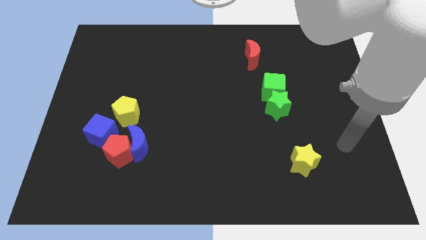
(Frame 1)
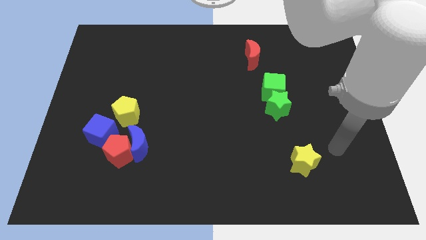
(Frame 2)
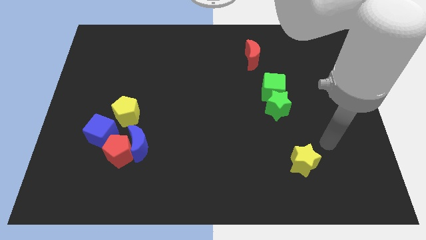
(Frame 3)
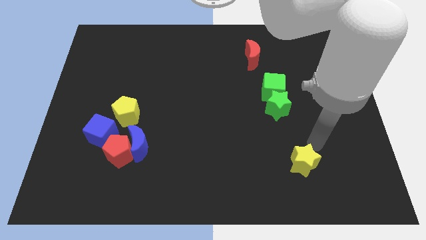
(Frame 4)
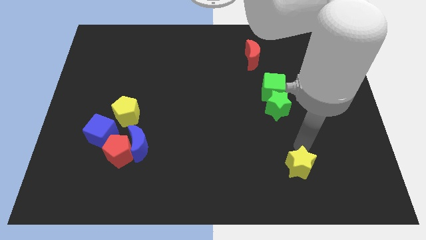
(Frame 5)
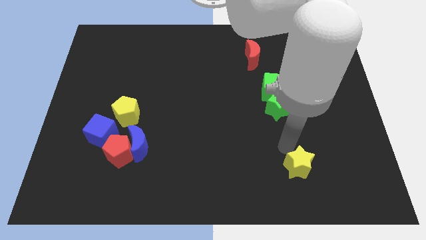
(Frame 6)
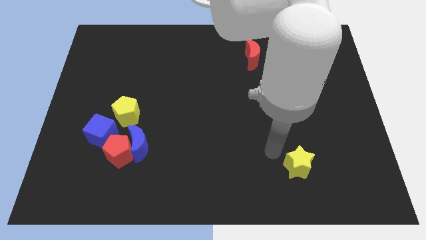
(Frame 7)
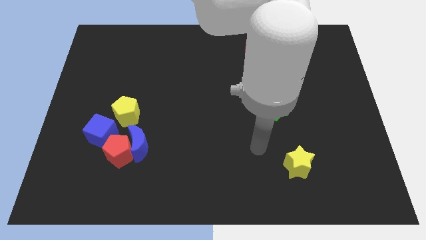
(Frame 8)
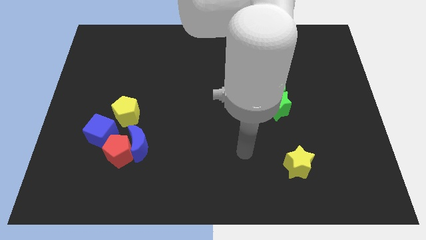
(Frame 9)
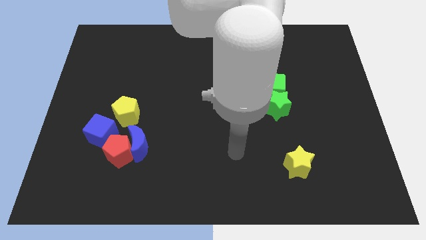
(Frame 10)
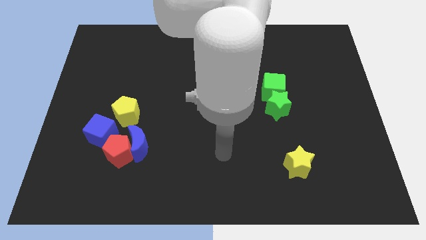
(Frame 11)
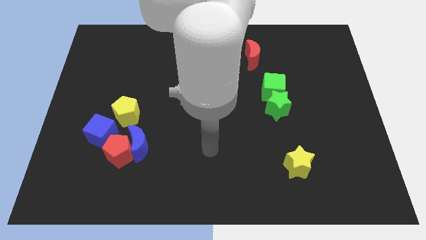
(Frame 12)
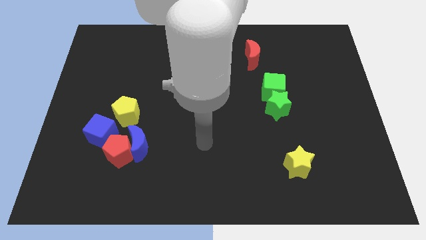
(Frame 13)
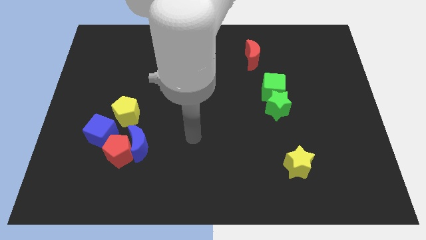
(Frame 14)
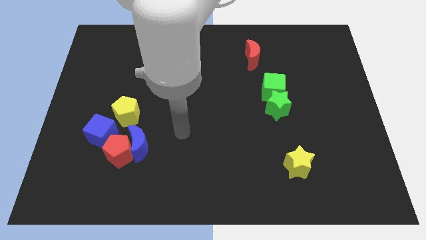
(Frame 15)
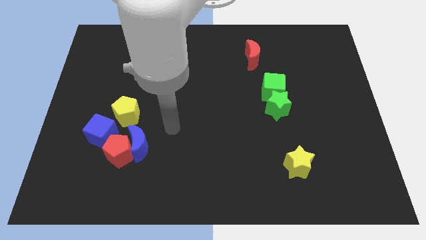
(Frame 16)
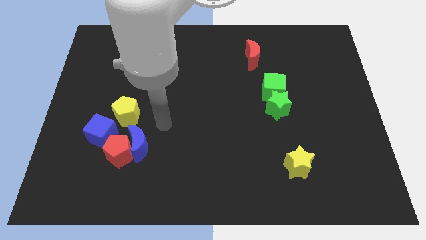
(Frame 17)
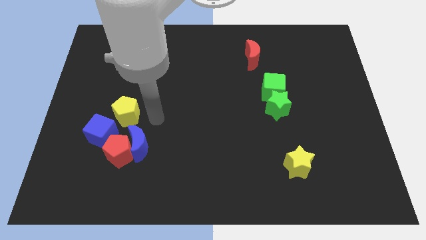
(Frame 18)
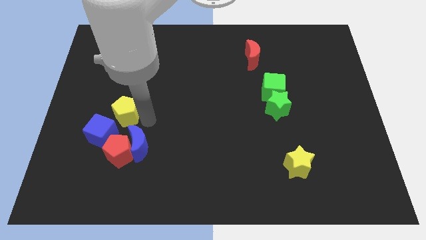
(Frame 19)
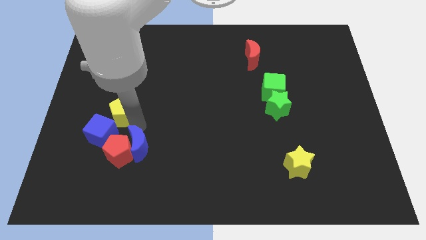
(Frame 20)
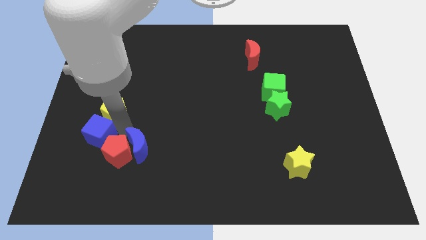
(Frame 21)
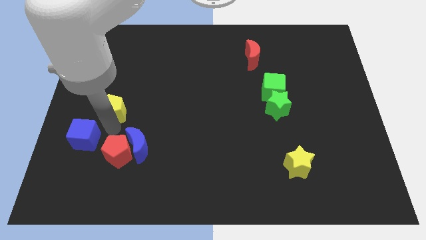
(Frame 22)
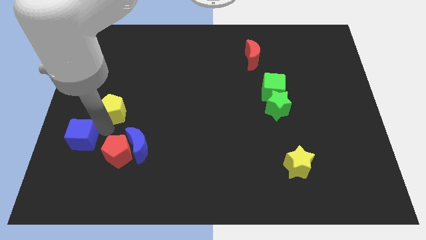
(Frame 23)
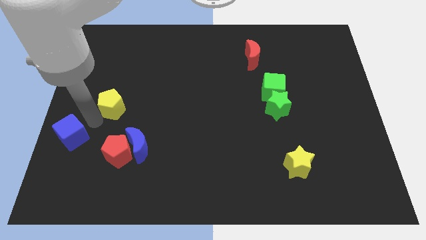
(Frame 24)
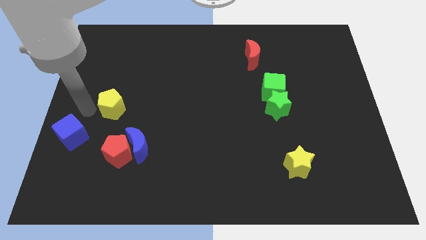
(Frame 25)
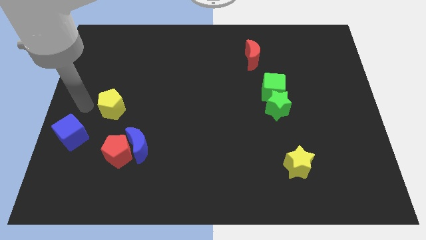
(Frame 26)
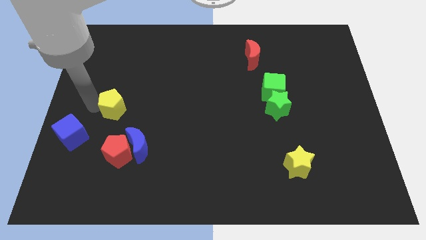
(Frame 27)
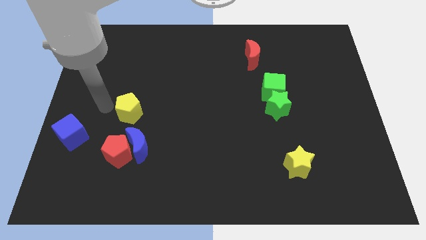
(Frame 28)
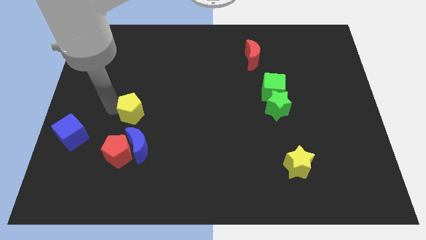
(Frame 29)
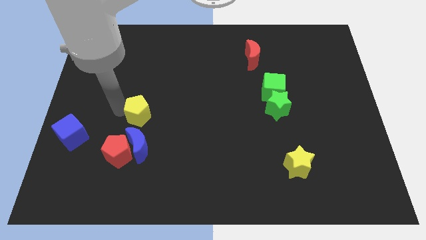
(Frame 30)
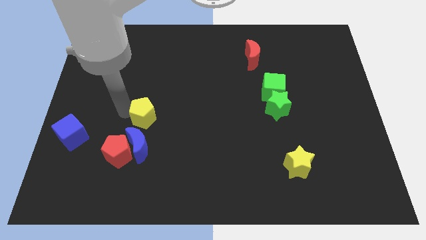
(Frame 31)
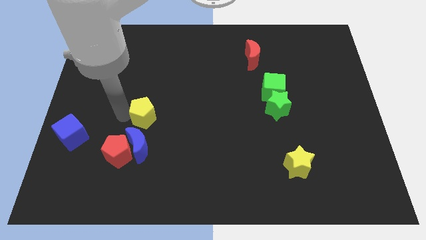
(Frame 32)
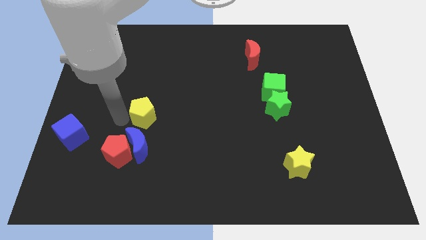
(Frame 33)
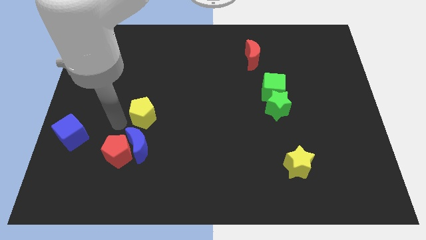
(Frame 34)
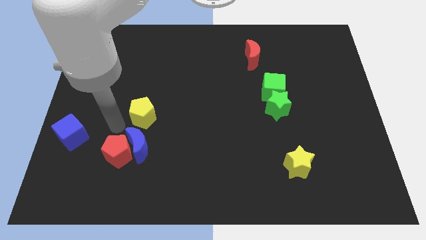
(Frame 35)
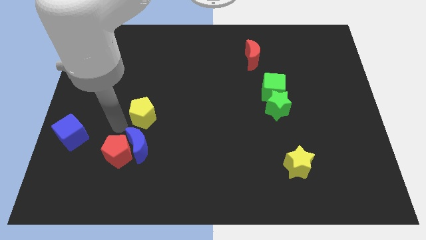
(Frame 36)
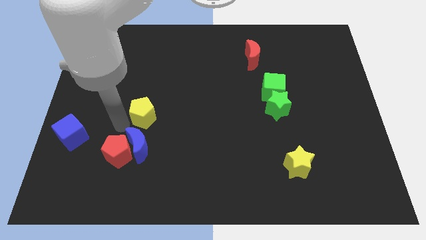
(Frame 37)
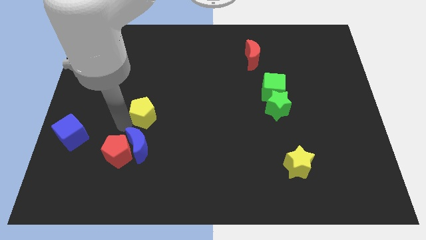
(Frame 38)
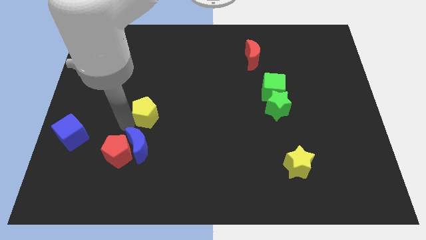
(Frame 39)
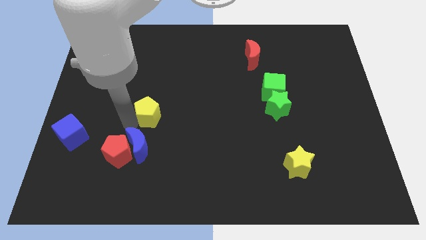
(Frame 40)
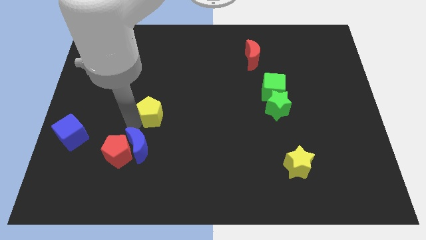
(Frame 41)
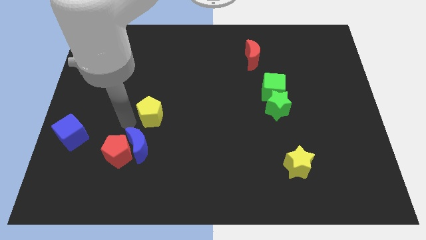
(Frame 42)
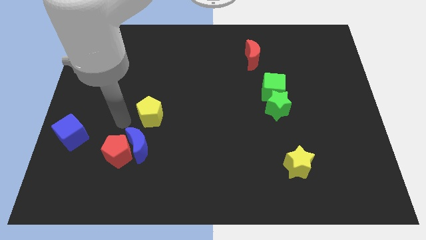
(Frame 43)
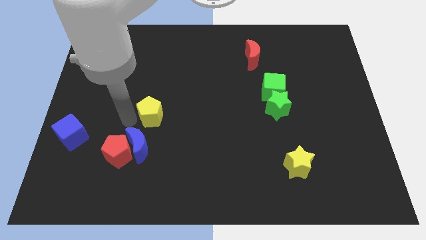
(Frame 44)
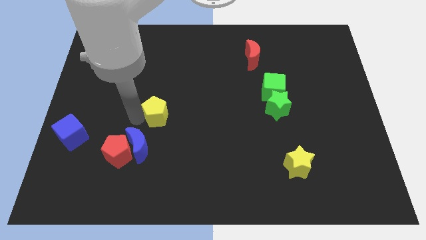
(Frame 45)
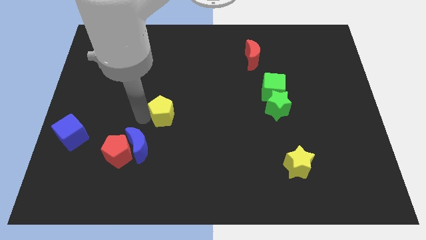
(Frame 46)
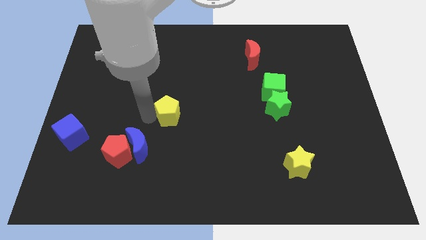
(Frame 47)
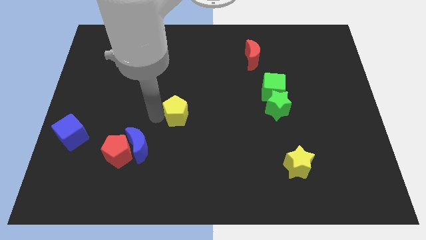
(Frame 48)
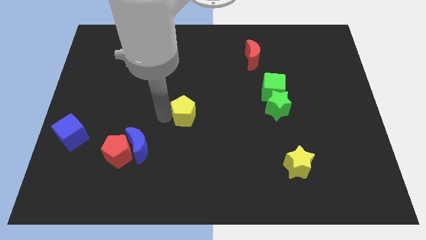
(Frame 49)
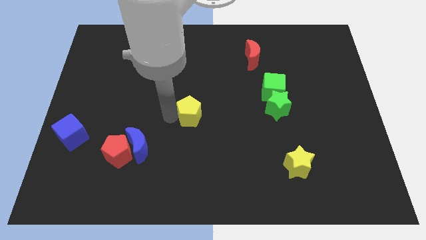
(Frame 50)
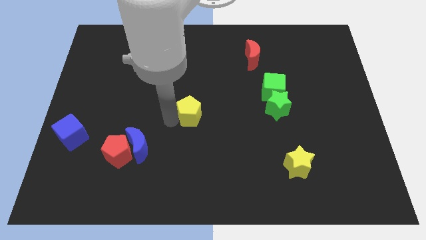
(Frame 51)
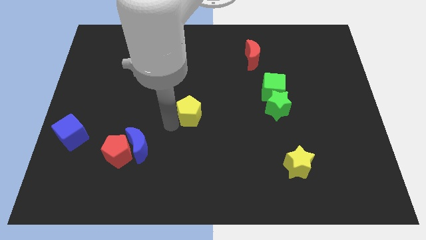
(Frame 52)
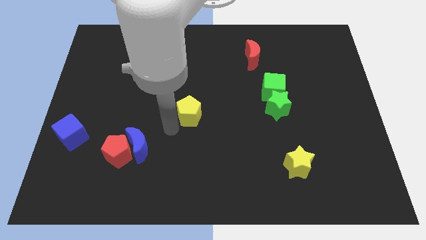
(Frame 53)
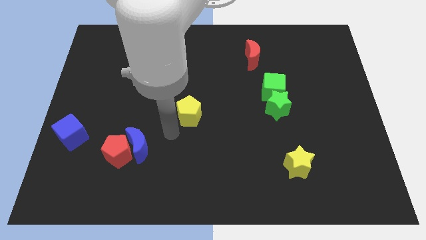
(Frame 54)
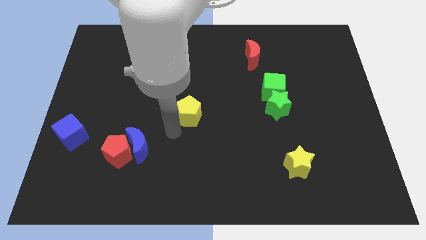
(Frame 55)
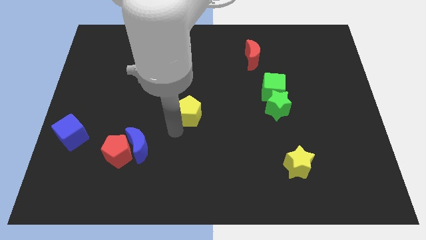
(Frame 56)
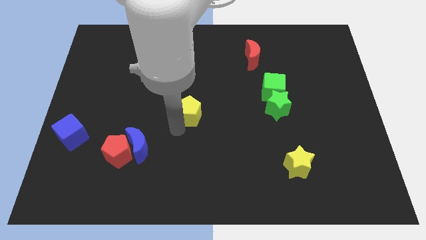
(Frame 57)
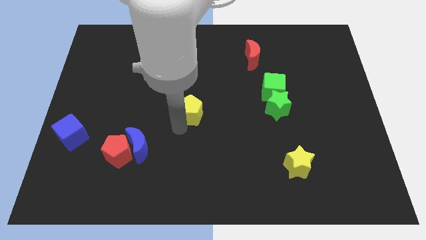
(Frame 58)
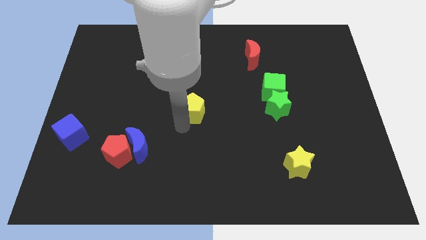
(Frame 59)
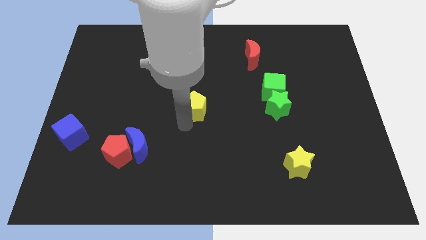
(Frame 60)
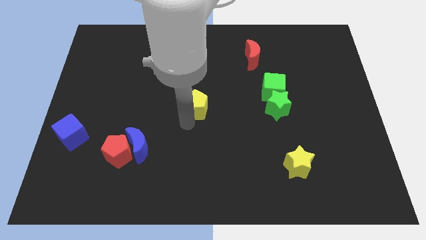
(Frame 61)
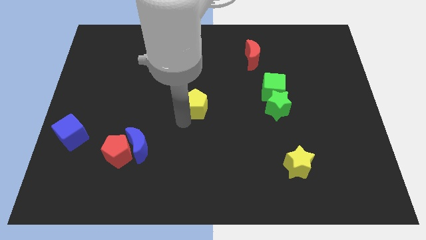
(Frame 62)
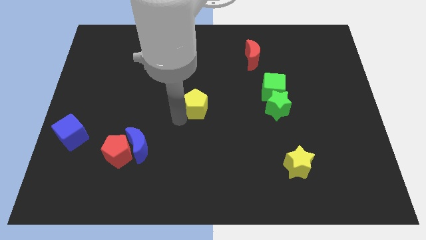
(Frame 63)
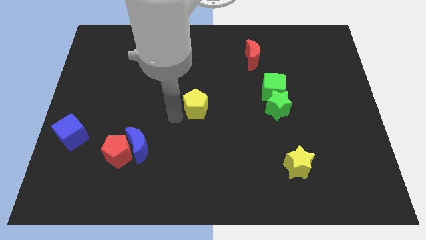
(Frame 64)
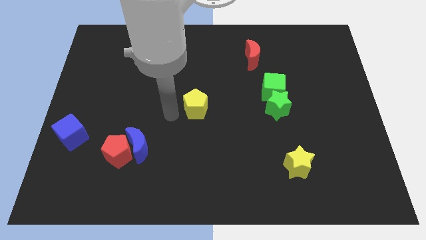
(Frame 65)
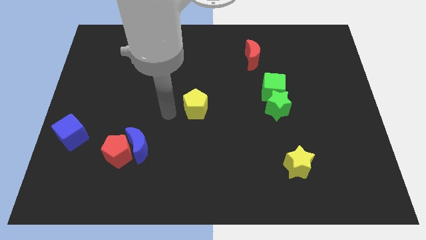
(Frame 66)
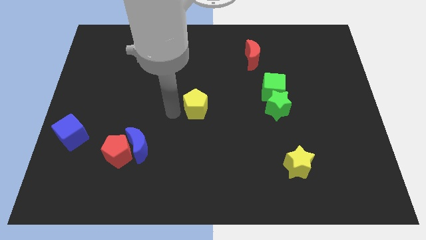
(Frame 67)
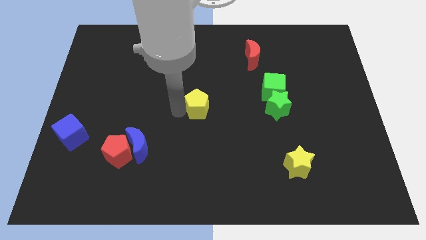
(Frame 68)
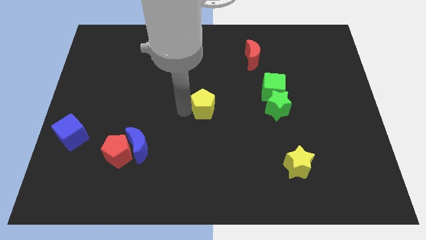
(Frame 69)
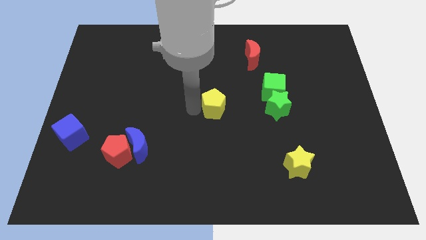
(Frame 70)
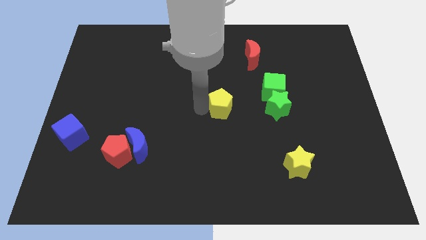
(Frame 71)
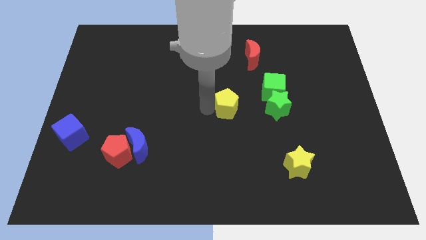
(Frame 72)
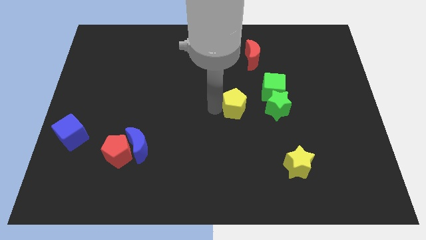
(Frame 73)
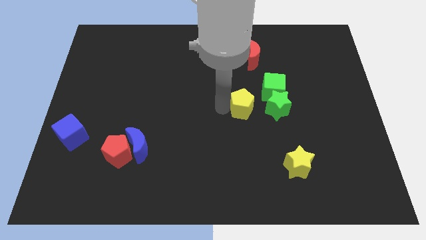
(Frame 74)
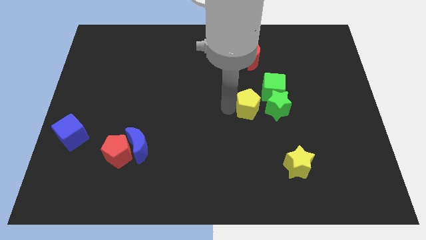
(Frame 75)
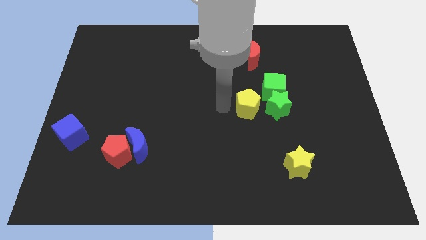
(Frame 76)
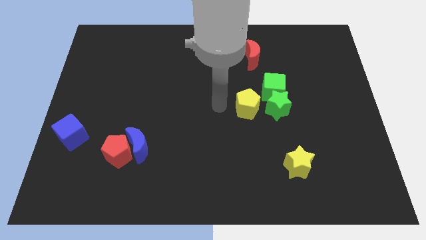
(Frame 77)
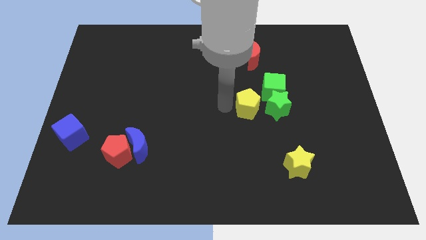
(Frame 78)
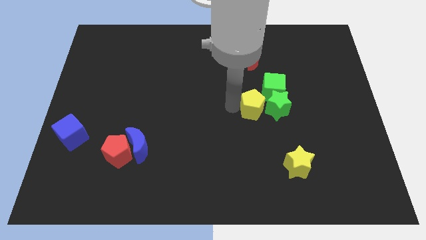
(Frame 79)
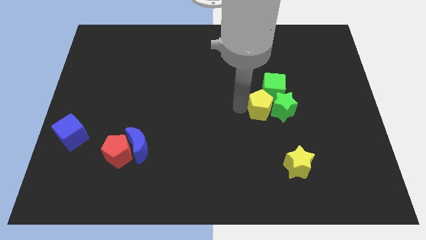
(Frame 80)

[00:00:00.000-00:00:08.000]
push the yellow pentagon to the green star
